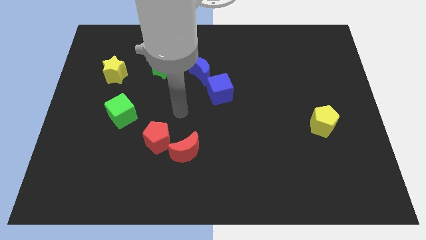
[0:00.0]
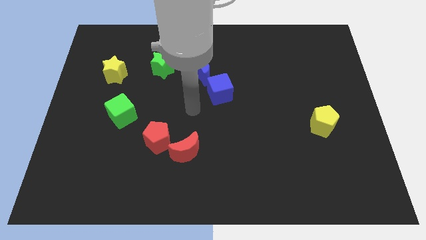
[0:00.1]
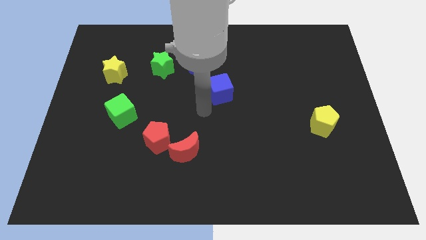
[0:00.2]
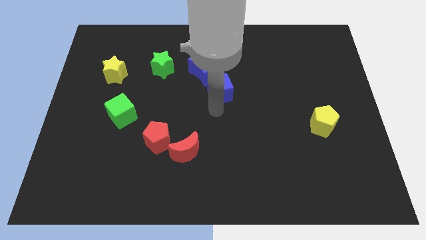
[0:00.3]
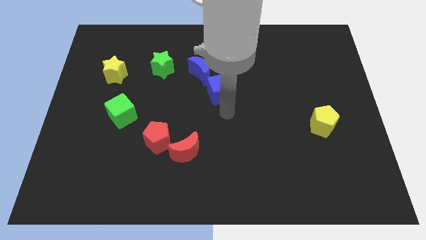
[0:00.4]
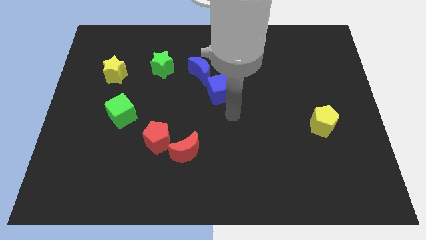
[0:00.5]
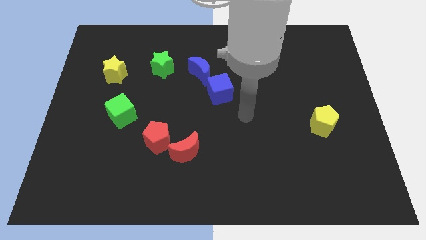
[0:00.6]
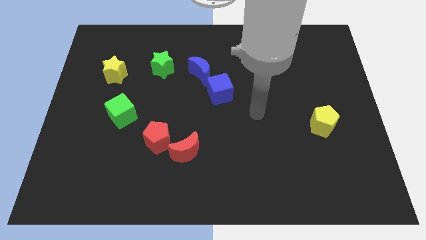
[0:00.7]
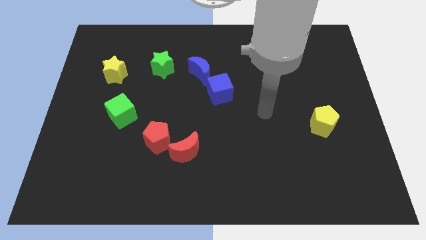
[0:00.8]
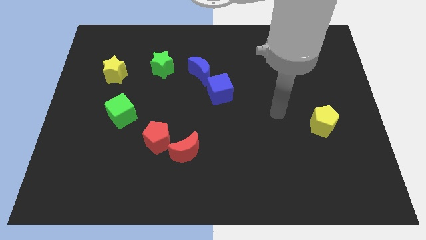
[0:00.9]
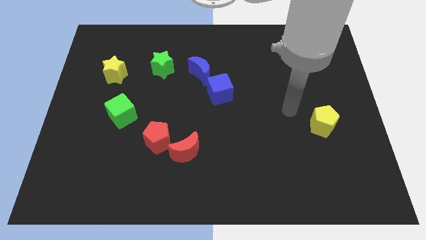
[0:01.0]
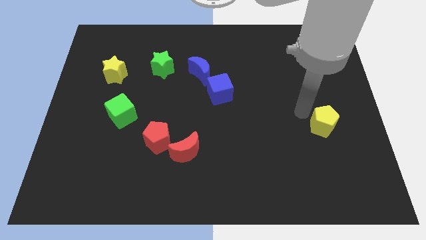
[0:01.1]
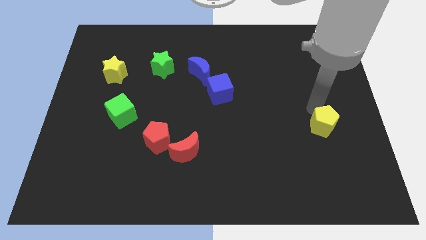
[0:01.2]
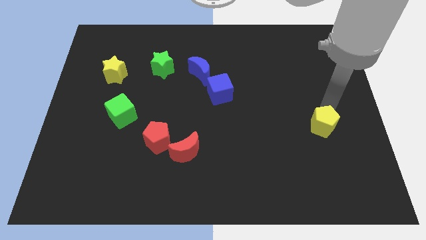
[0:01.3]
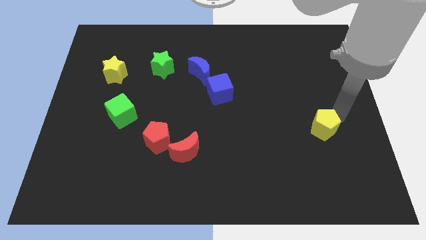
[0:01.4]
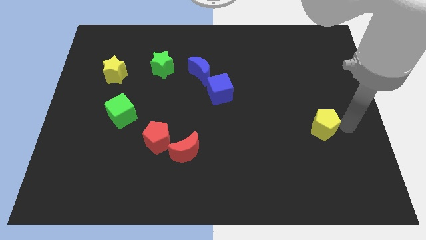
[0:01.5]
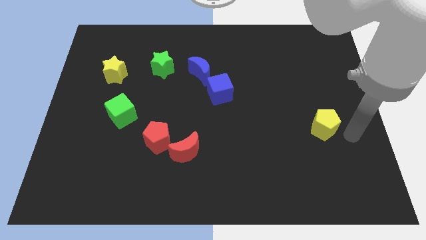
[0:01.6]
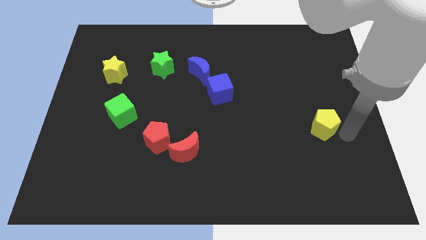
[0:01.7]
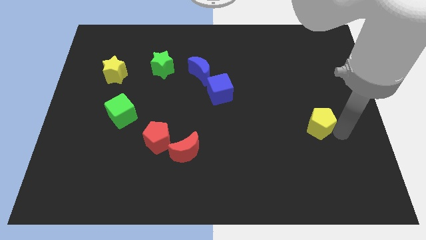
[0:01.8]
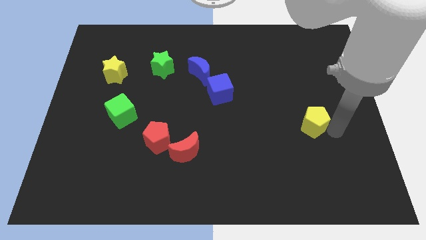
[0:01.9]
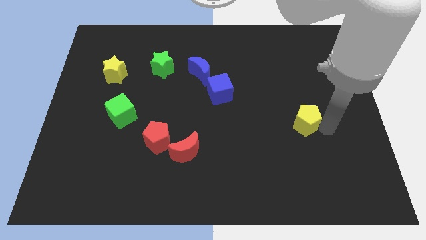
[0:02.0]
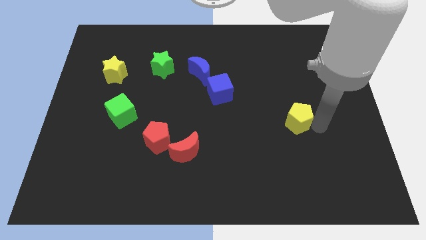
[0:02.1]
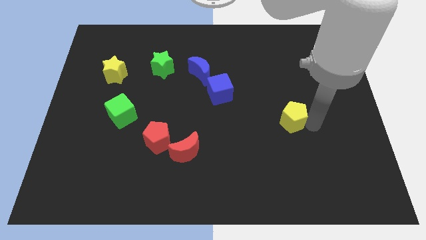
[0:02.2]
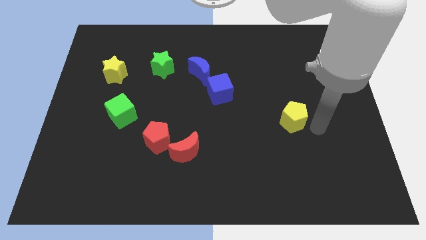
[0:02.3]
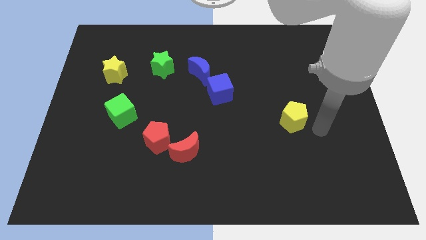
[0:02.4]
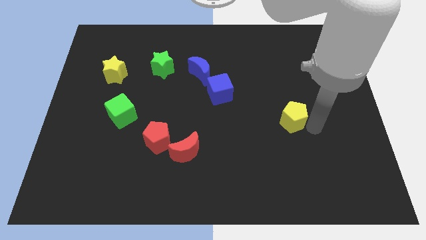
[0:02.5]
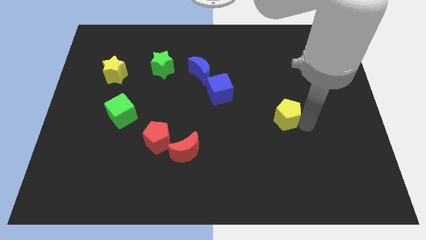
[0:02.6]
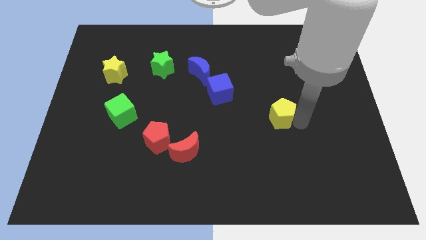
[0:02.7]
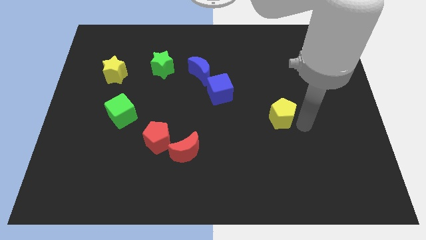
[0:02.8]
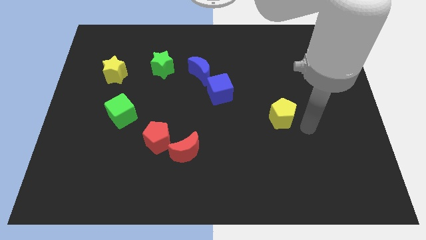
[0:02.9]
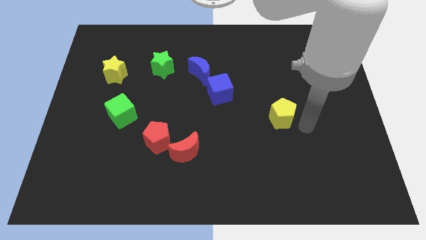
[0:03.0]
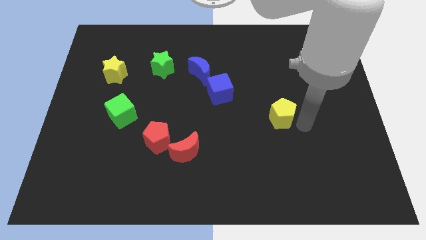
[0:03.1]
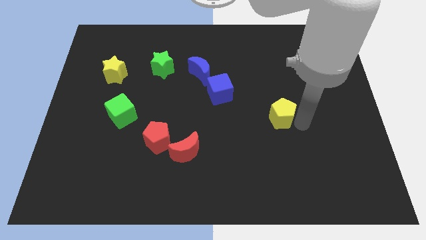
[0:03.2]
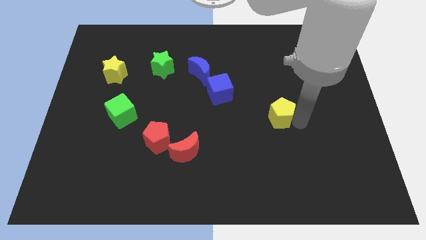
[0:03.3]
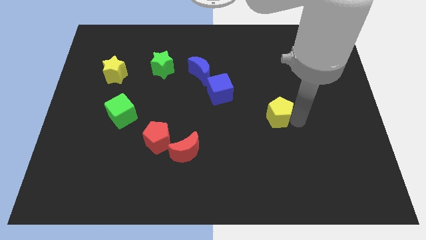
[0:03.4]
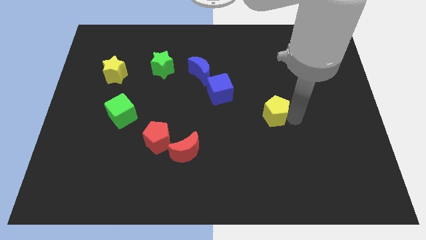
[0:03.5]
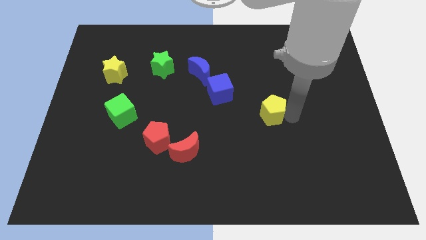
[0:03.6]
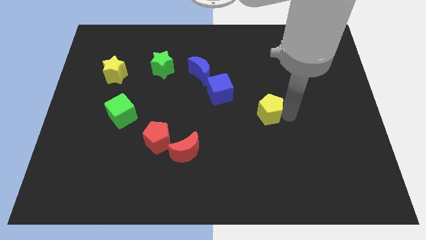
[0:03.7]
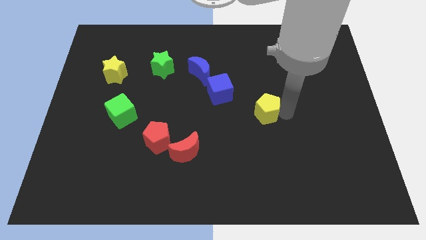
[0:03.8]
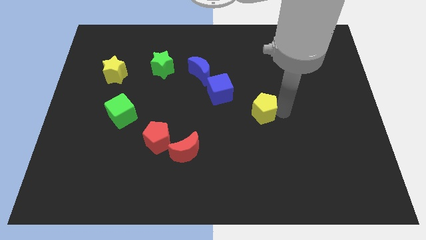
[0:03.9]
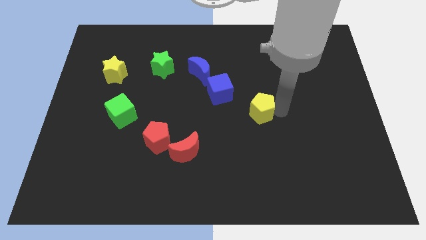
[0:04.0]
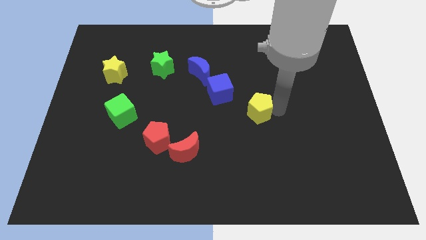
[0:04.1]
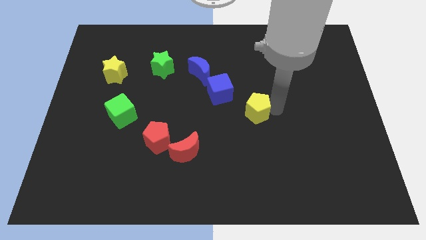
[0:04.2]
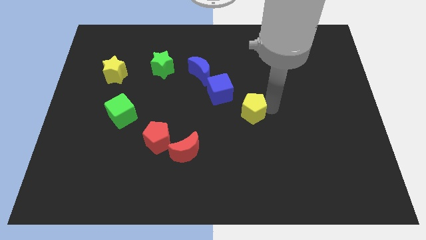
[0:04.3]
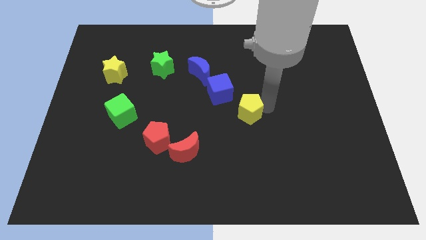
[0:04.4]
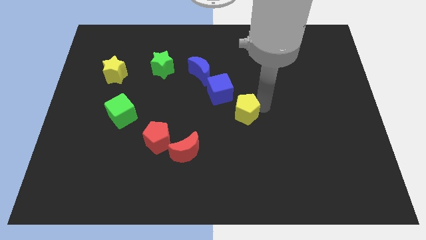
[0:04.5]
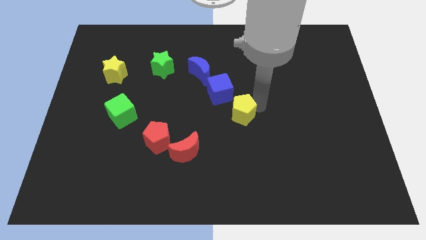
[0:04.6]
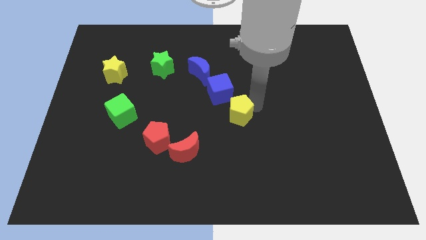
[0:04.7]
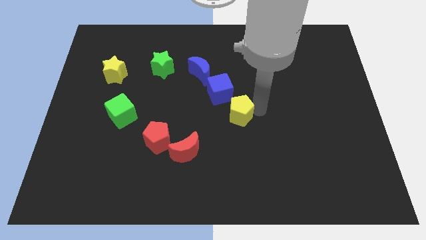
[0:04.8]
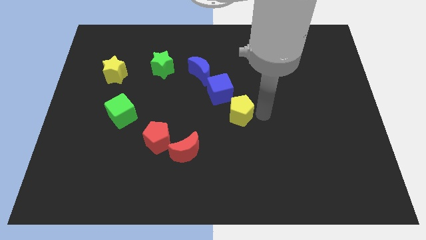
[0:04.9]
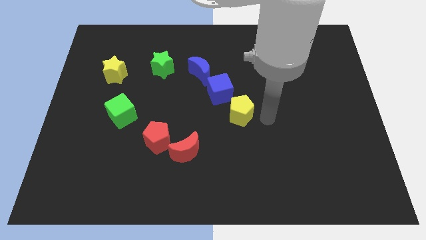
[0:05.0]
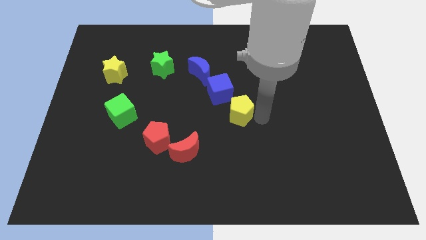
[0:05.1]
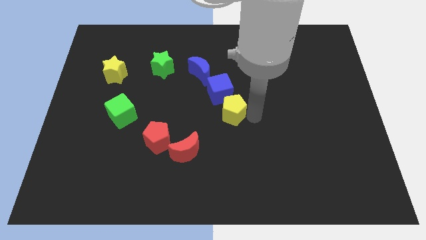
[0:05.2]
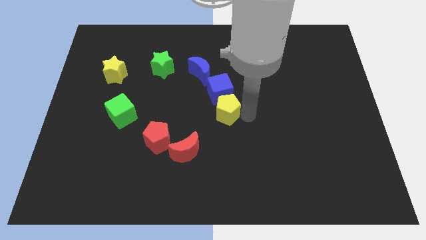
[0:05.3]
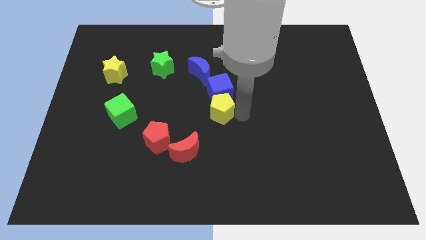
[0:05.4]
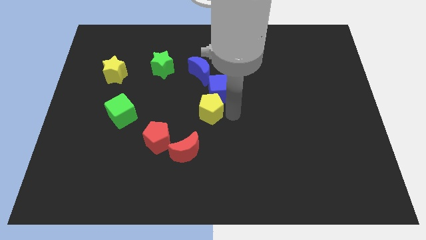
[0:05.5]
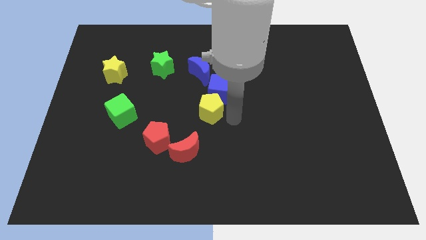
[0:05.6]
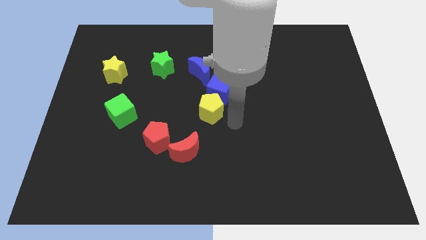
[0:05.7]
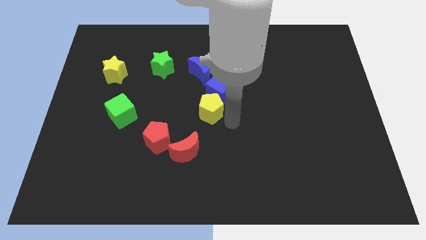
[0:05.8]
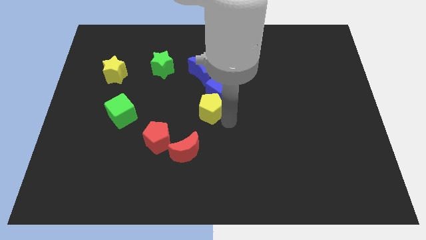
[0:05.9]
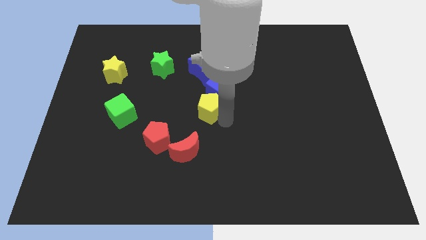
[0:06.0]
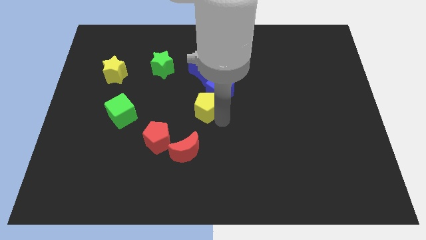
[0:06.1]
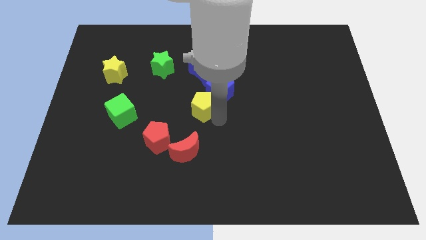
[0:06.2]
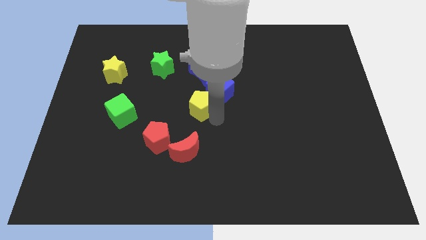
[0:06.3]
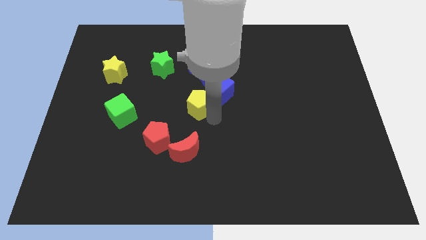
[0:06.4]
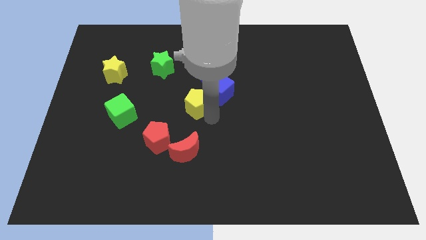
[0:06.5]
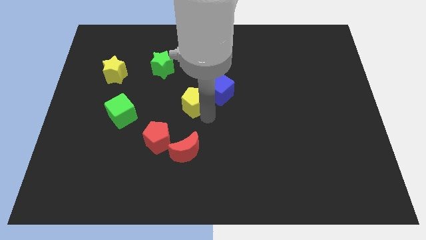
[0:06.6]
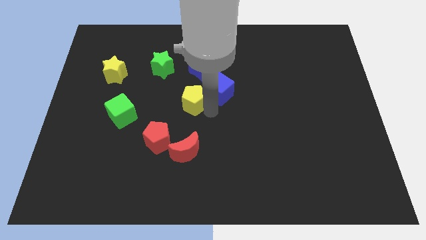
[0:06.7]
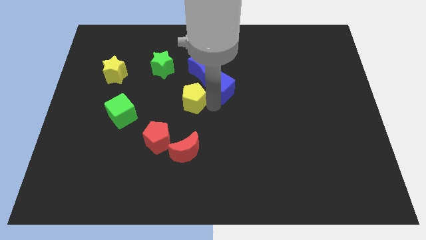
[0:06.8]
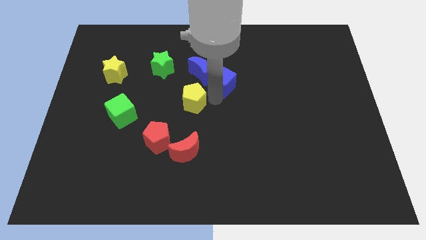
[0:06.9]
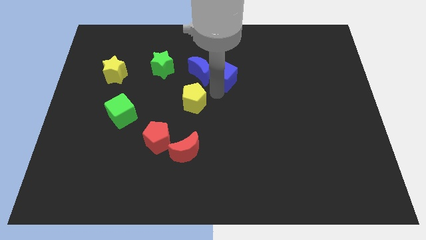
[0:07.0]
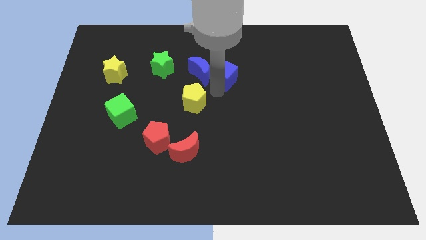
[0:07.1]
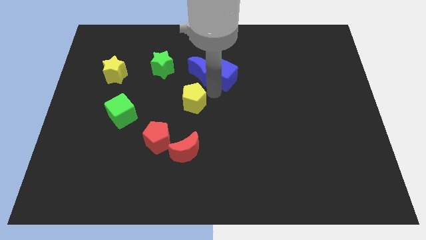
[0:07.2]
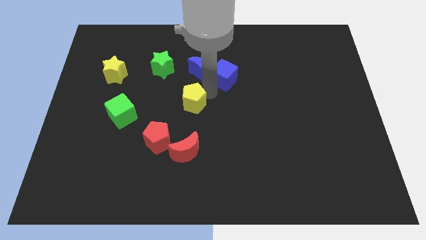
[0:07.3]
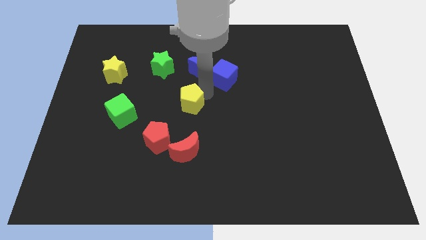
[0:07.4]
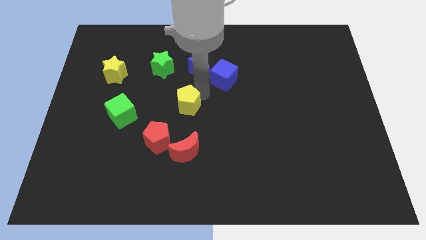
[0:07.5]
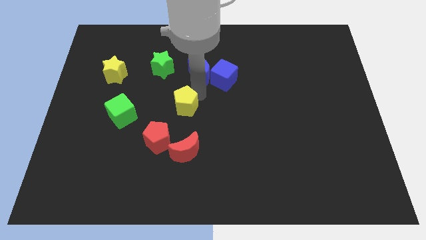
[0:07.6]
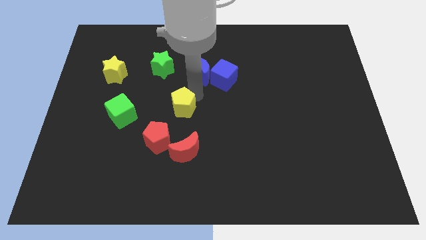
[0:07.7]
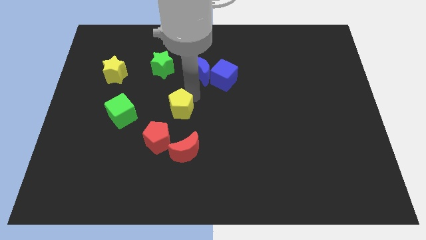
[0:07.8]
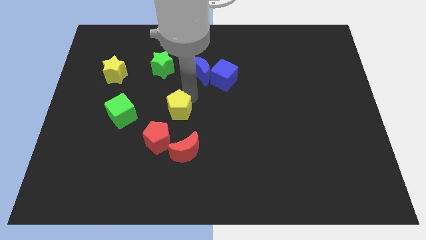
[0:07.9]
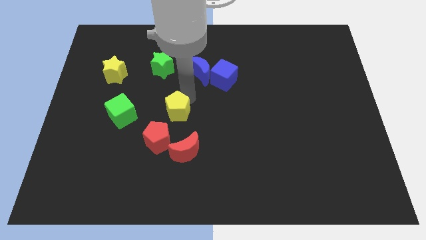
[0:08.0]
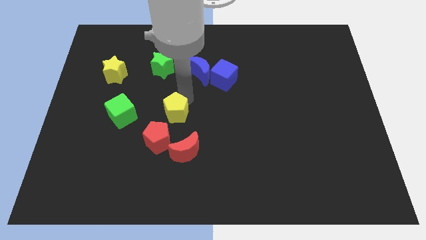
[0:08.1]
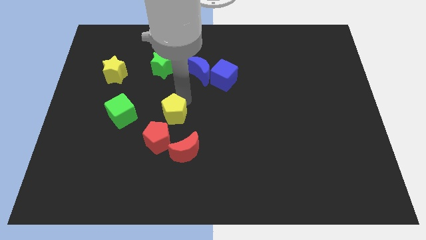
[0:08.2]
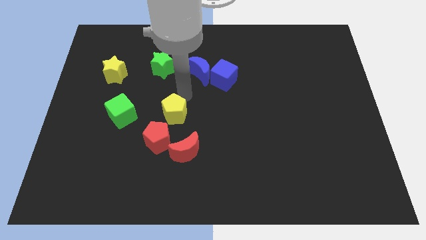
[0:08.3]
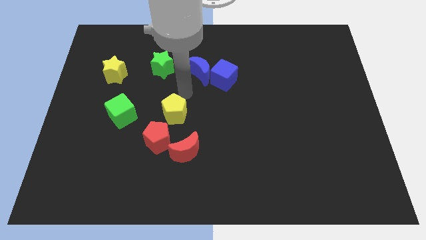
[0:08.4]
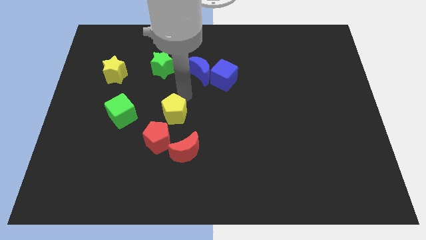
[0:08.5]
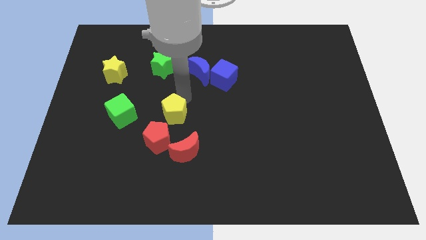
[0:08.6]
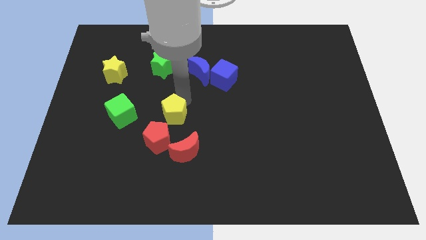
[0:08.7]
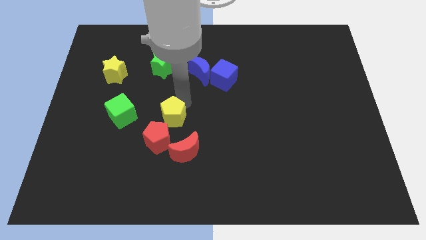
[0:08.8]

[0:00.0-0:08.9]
slide the yellow pentagon to the top left of the red moon
